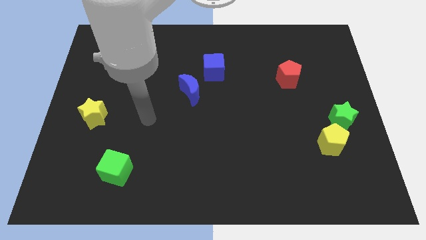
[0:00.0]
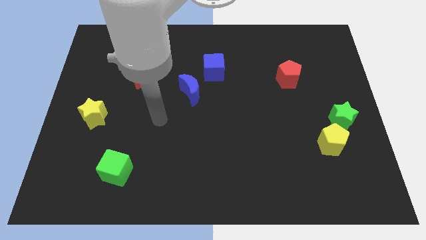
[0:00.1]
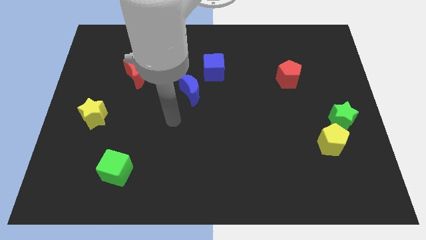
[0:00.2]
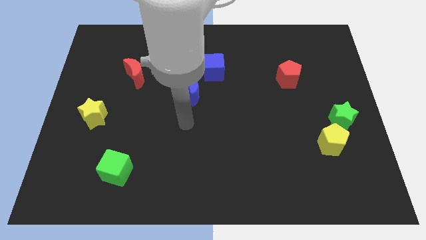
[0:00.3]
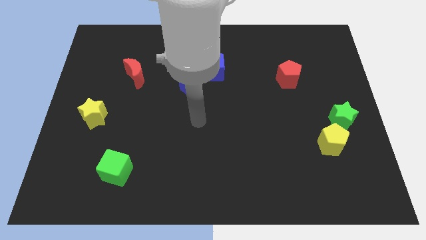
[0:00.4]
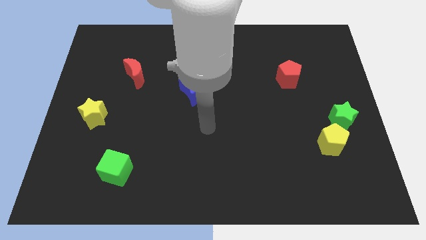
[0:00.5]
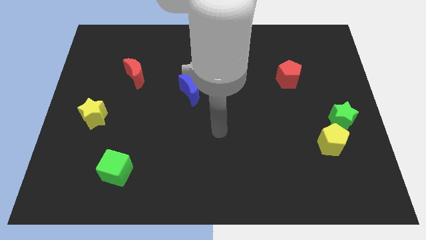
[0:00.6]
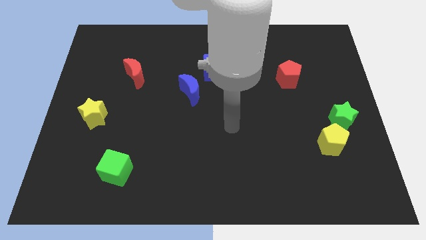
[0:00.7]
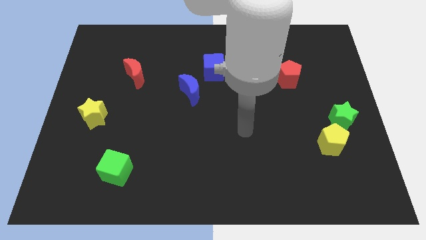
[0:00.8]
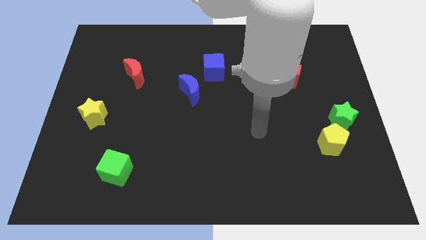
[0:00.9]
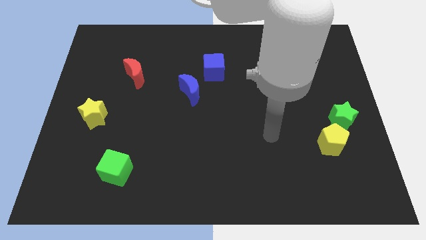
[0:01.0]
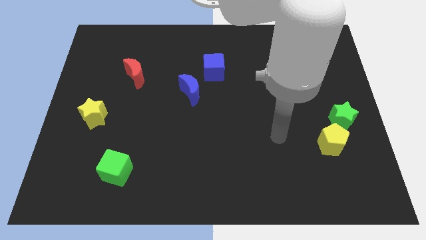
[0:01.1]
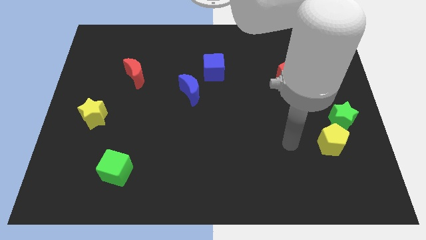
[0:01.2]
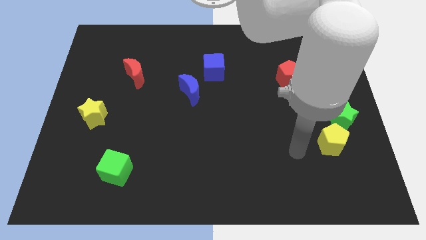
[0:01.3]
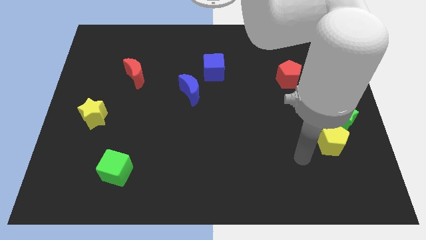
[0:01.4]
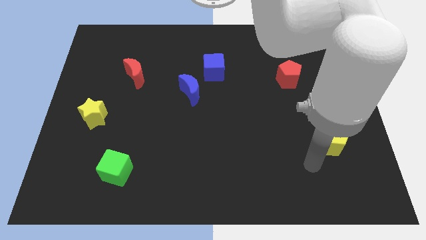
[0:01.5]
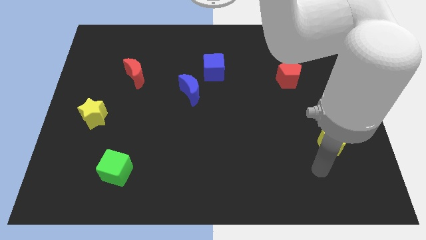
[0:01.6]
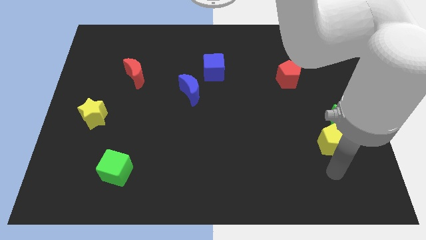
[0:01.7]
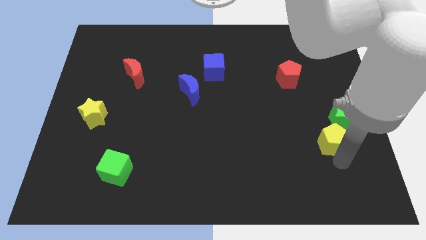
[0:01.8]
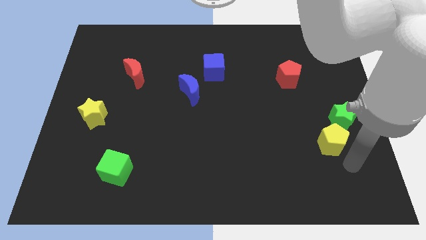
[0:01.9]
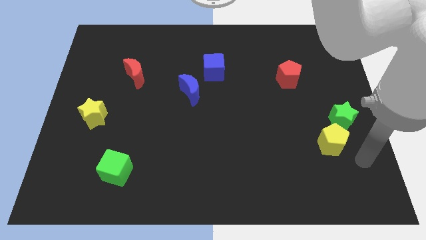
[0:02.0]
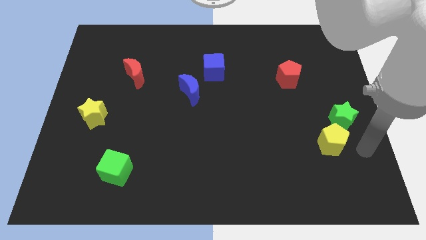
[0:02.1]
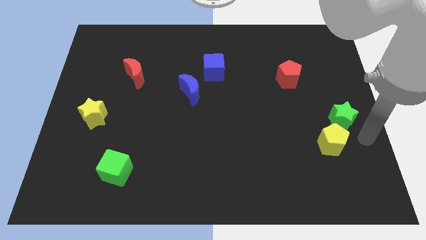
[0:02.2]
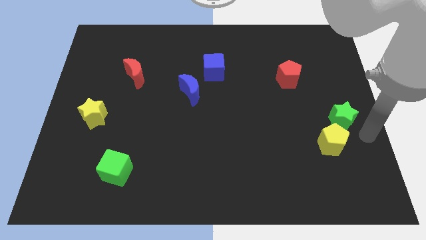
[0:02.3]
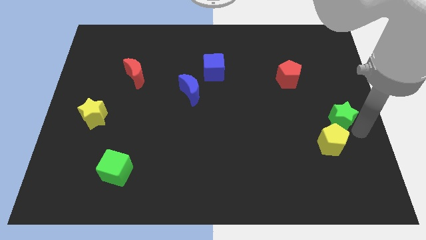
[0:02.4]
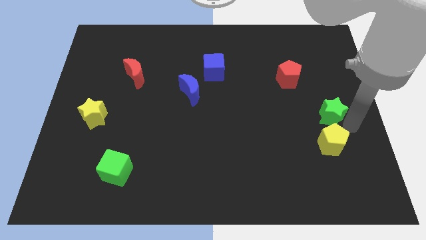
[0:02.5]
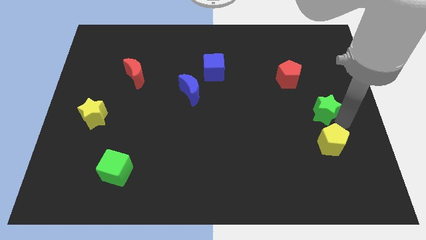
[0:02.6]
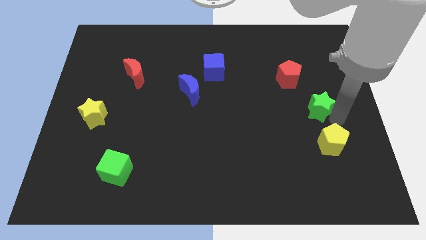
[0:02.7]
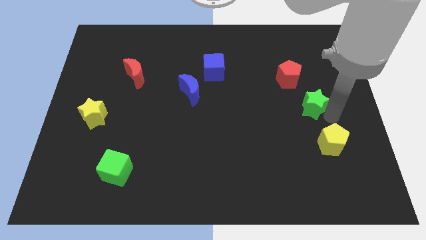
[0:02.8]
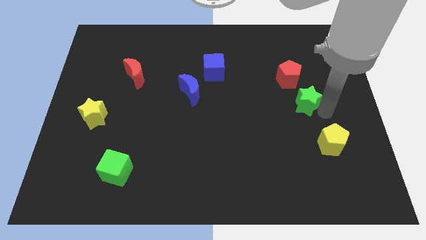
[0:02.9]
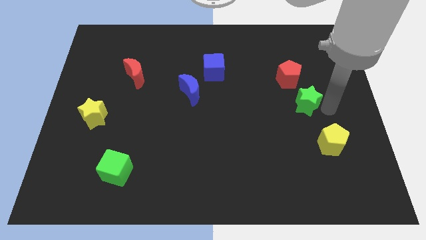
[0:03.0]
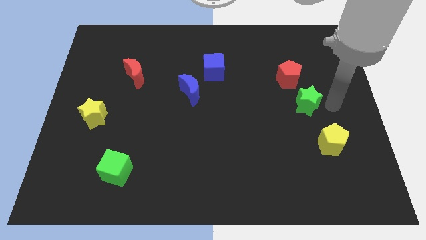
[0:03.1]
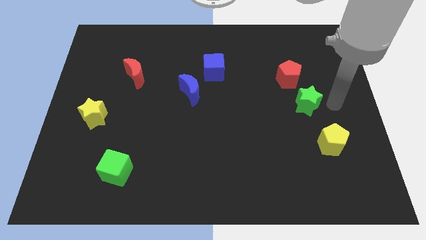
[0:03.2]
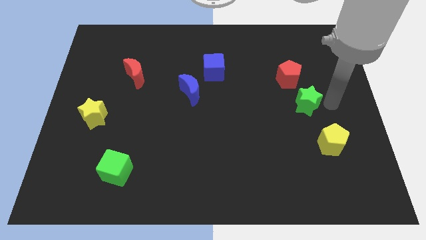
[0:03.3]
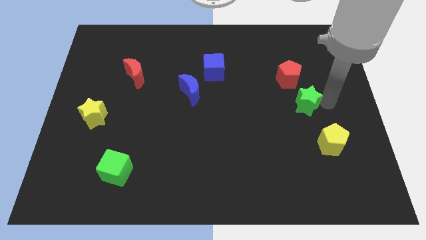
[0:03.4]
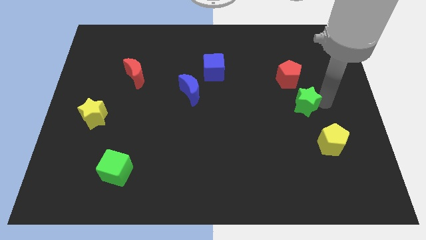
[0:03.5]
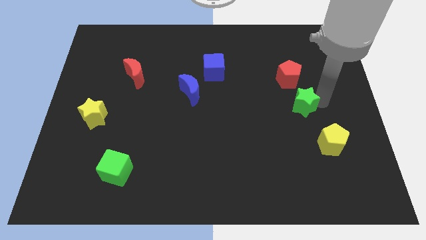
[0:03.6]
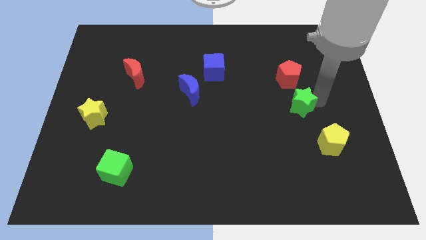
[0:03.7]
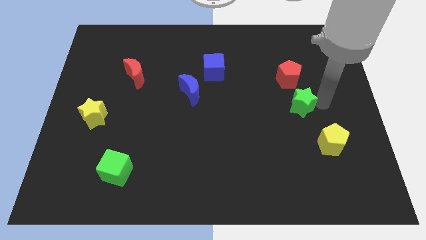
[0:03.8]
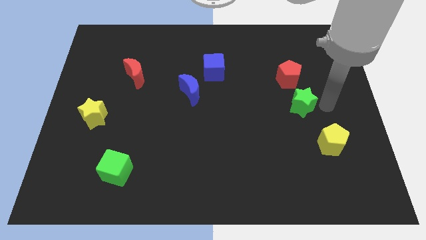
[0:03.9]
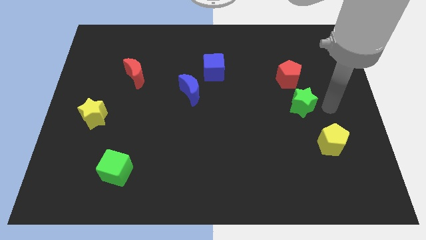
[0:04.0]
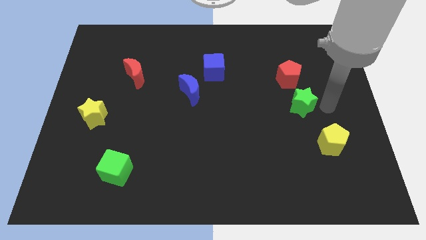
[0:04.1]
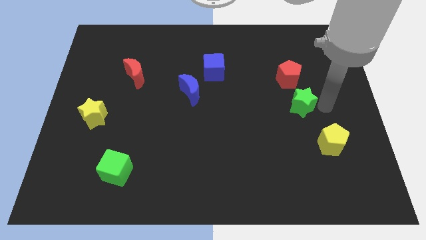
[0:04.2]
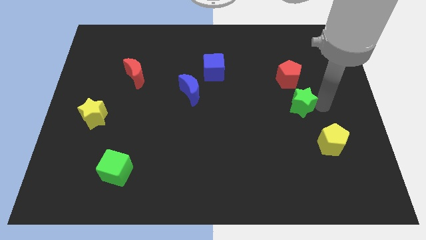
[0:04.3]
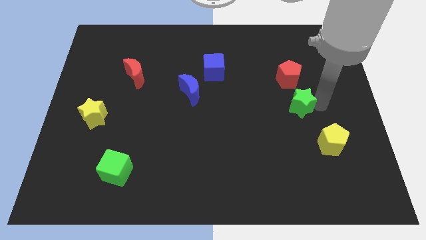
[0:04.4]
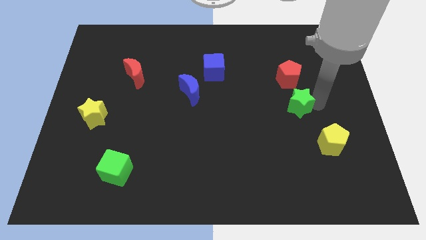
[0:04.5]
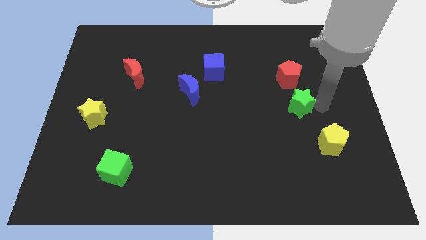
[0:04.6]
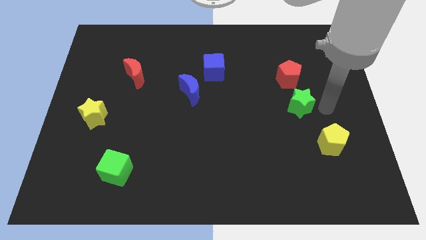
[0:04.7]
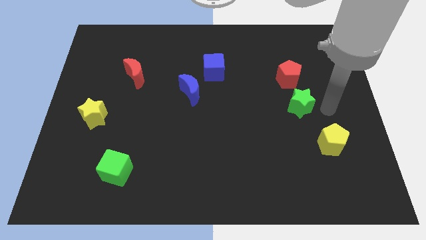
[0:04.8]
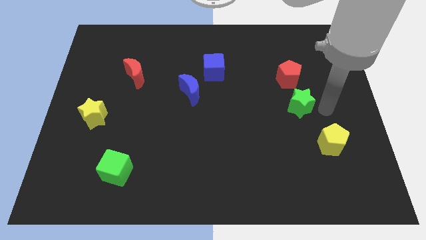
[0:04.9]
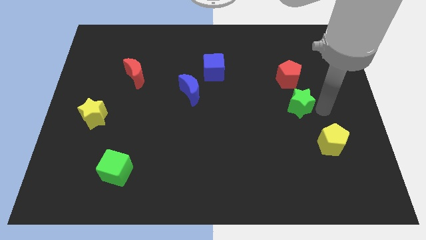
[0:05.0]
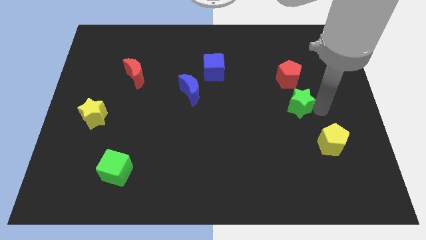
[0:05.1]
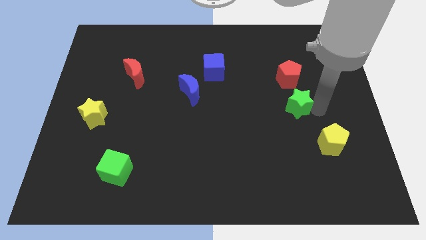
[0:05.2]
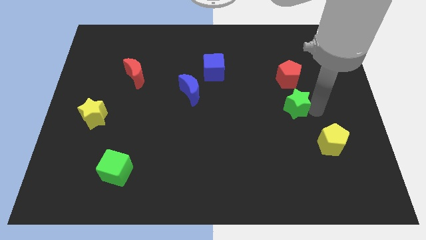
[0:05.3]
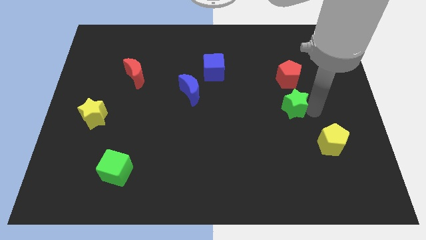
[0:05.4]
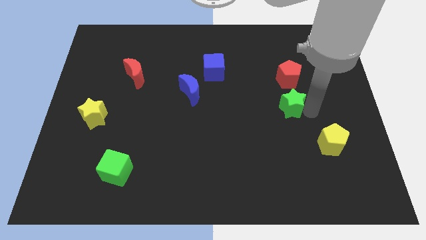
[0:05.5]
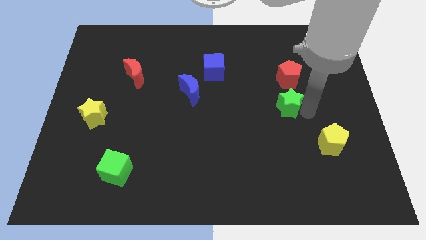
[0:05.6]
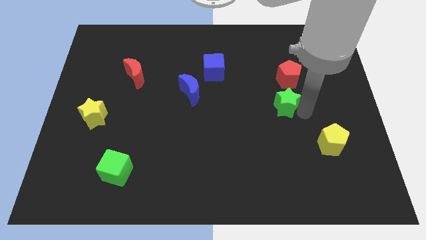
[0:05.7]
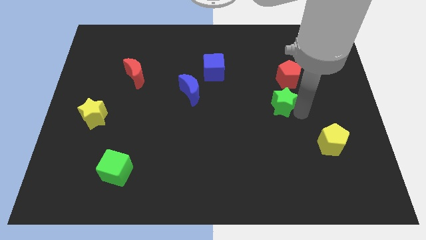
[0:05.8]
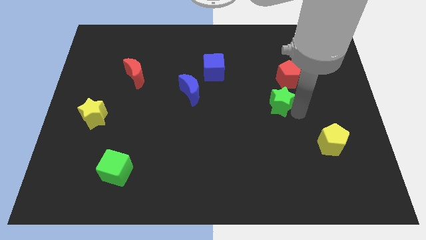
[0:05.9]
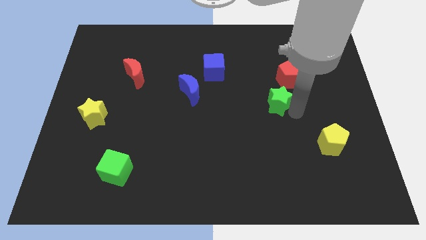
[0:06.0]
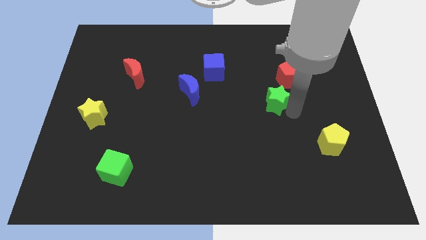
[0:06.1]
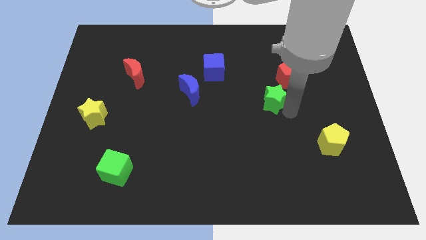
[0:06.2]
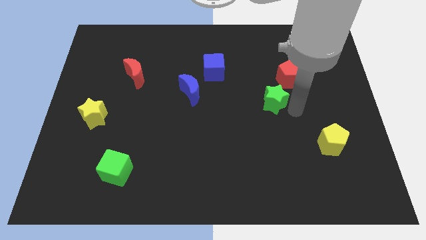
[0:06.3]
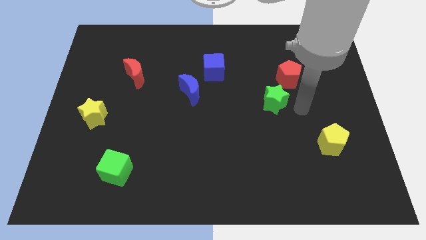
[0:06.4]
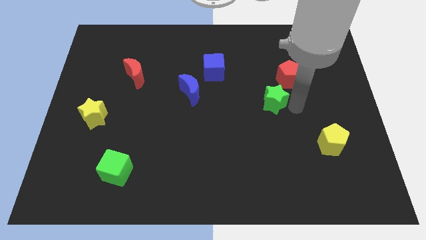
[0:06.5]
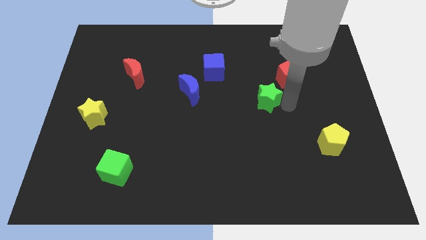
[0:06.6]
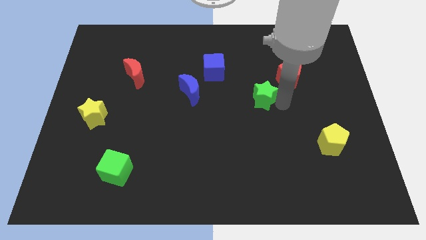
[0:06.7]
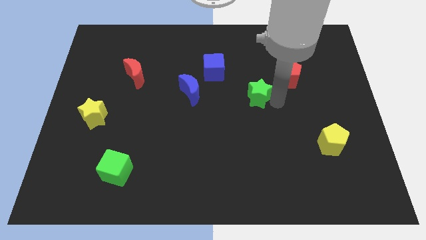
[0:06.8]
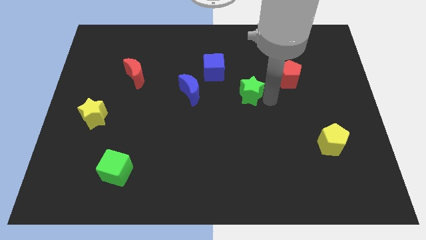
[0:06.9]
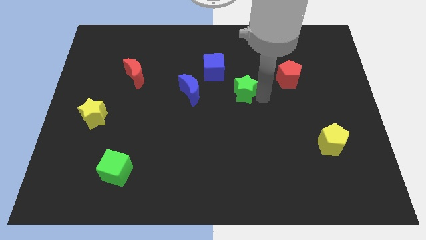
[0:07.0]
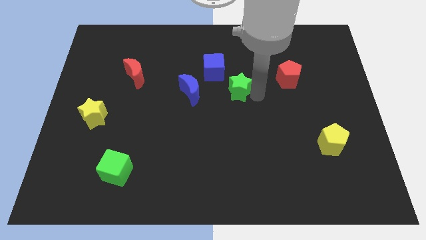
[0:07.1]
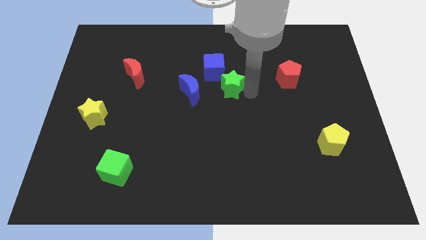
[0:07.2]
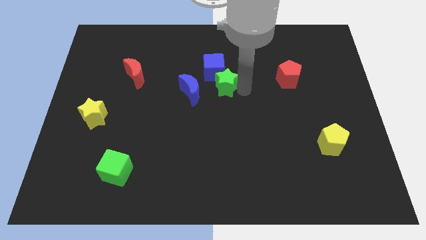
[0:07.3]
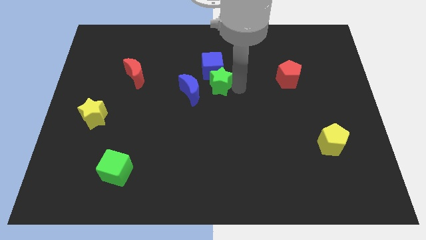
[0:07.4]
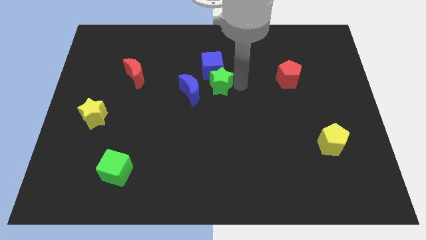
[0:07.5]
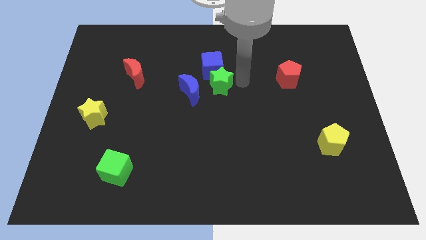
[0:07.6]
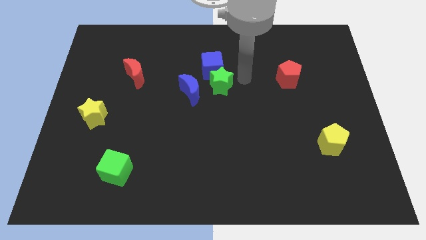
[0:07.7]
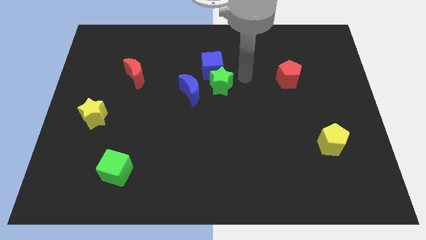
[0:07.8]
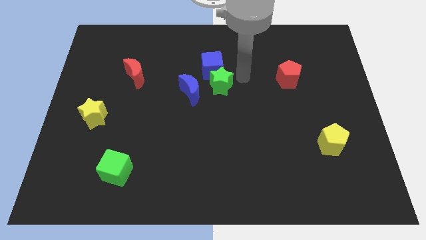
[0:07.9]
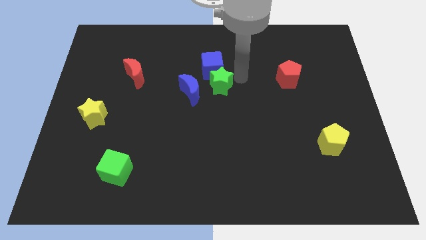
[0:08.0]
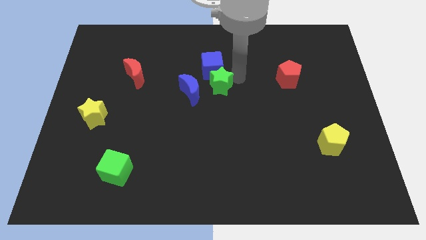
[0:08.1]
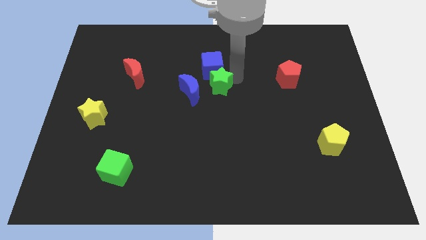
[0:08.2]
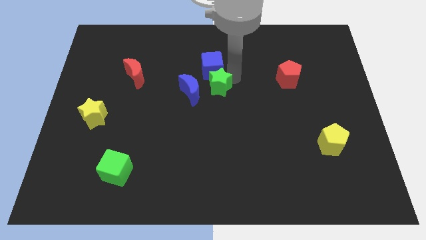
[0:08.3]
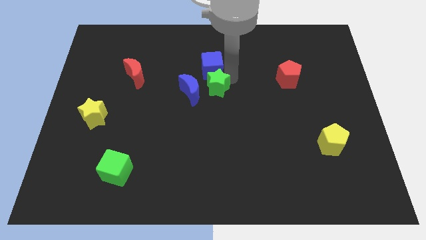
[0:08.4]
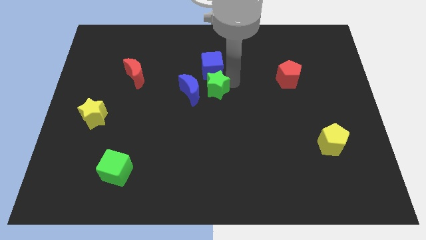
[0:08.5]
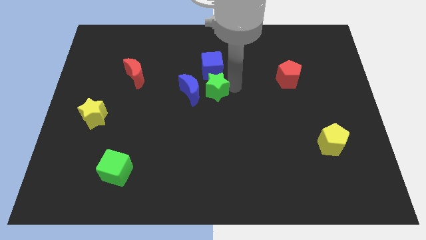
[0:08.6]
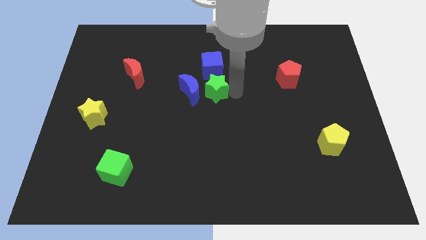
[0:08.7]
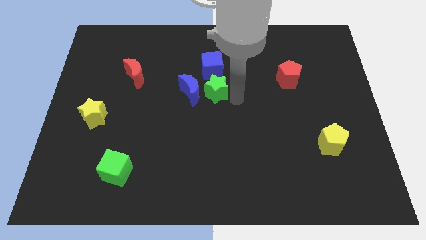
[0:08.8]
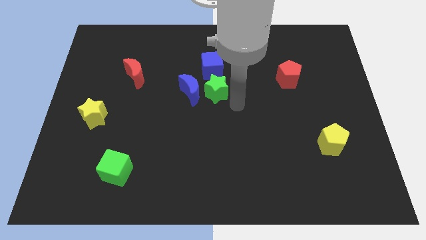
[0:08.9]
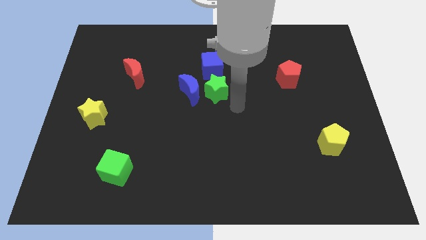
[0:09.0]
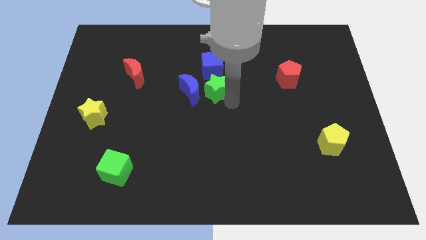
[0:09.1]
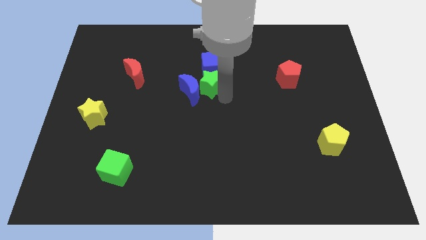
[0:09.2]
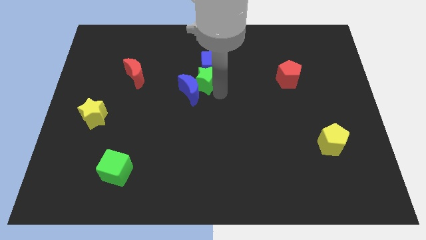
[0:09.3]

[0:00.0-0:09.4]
slide the green star to the top of the blue moon
